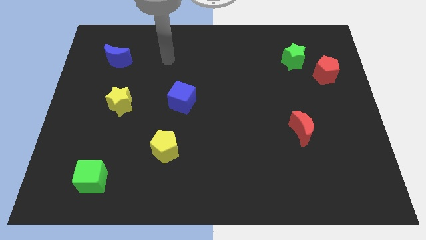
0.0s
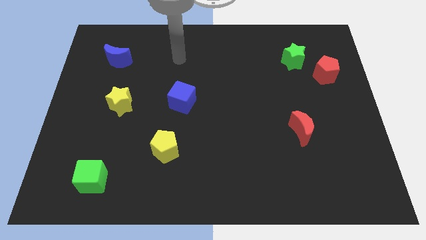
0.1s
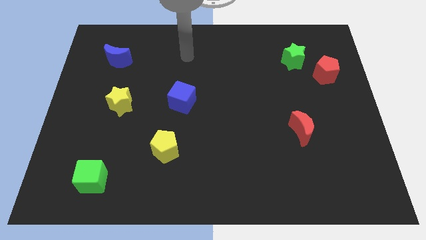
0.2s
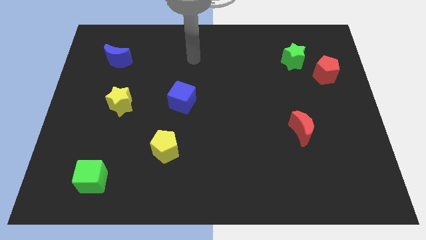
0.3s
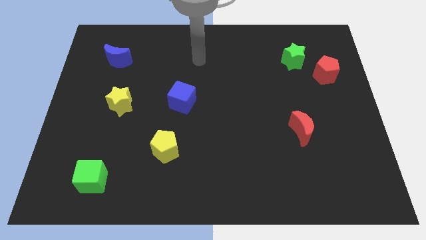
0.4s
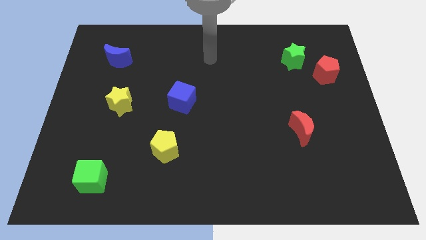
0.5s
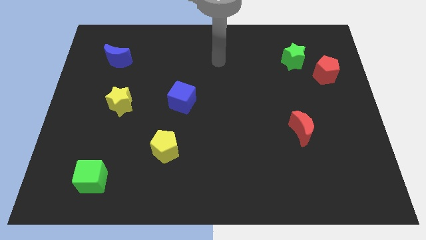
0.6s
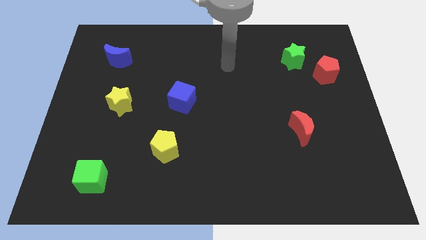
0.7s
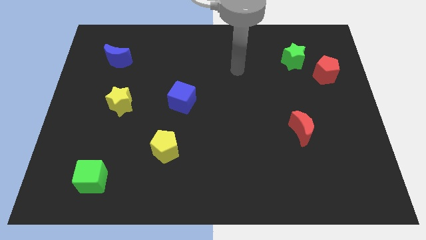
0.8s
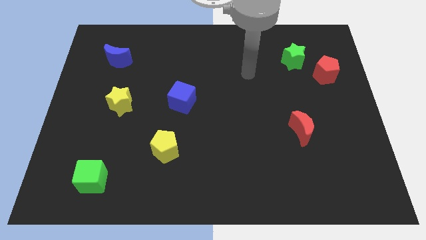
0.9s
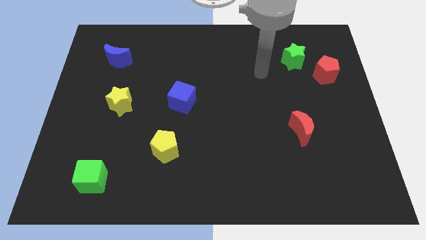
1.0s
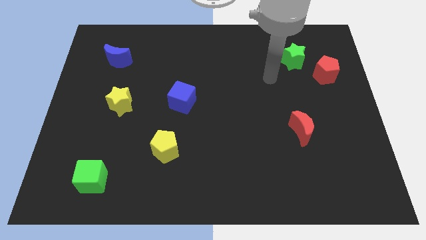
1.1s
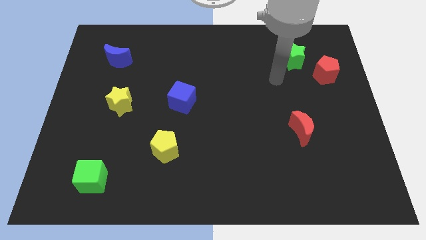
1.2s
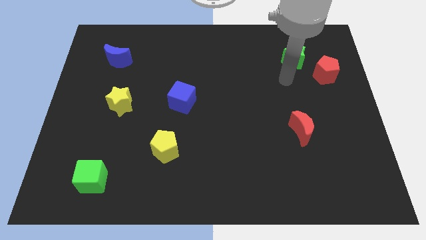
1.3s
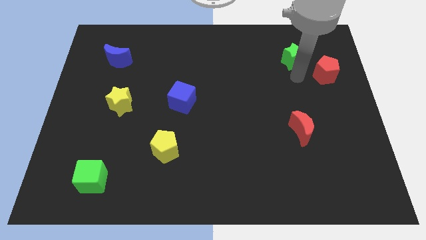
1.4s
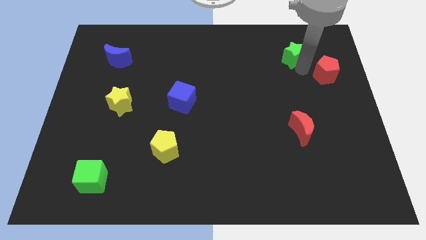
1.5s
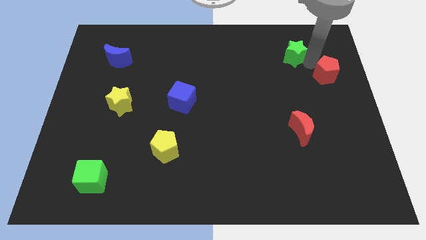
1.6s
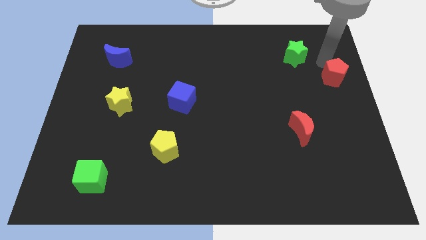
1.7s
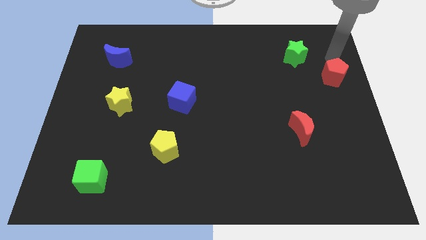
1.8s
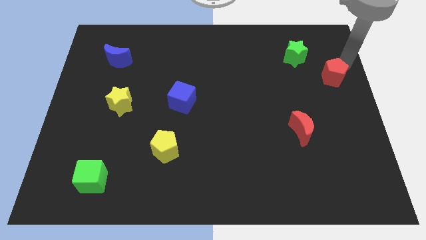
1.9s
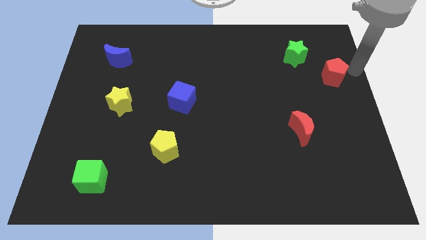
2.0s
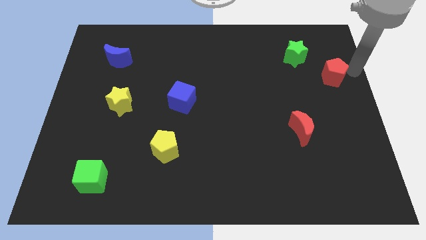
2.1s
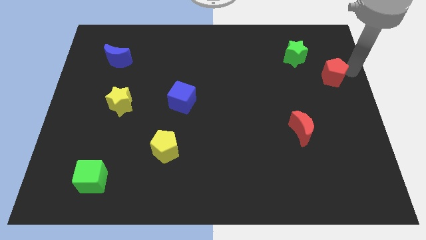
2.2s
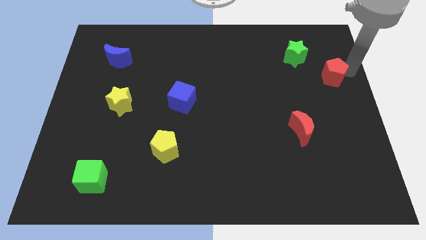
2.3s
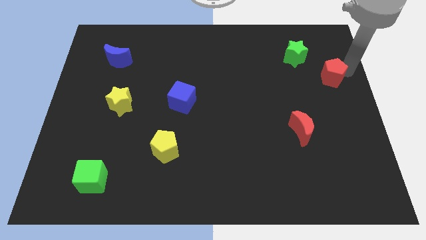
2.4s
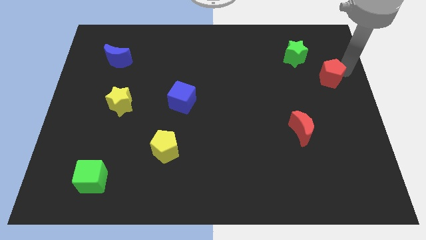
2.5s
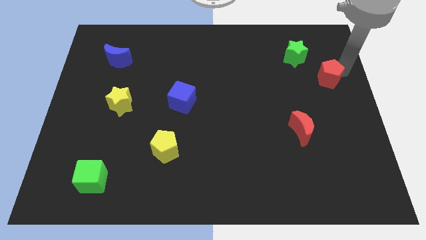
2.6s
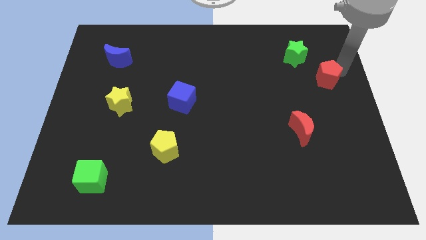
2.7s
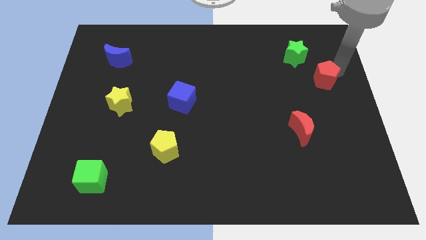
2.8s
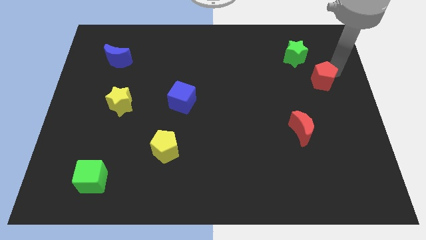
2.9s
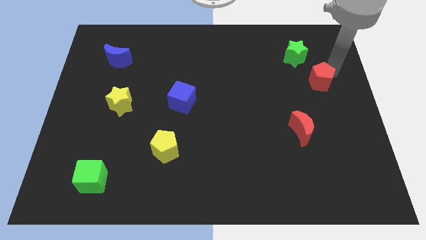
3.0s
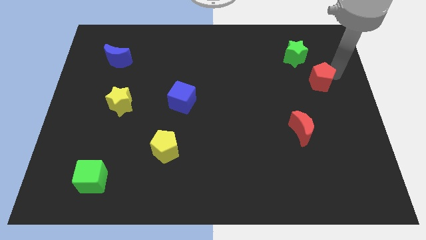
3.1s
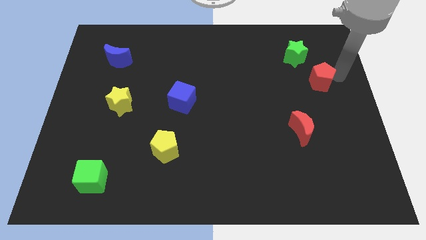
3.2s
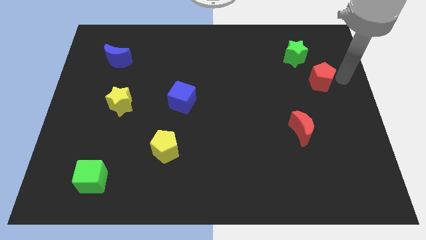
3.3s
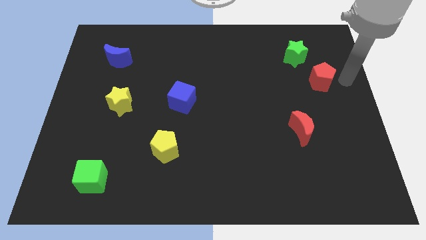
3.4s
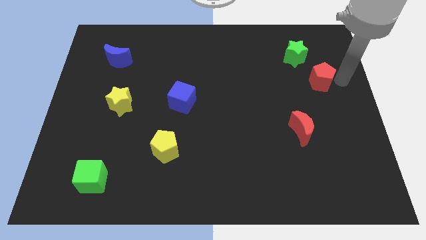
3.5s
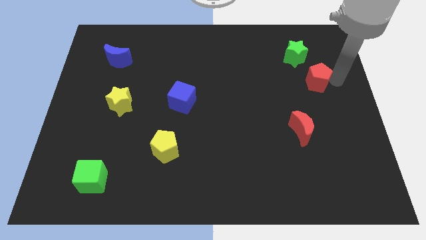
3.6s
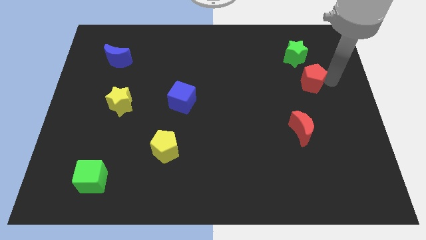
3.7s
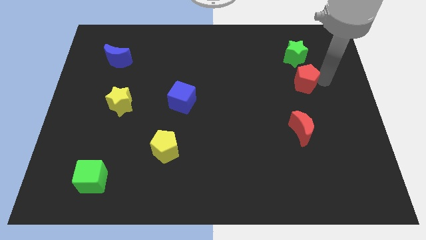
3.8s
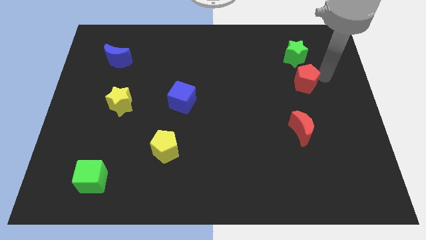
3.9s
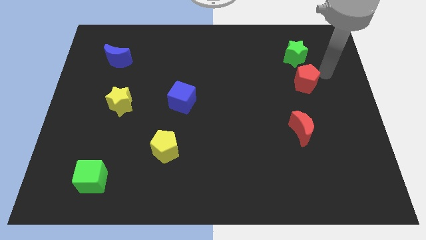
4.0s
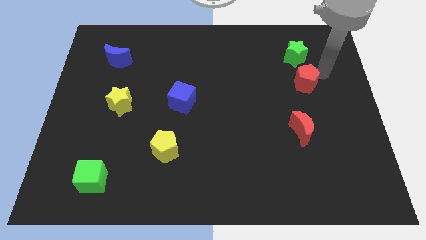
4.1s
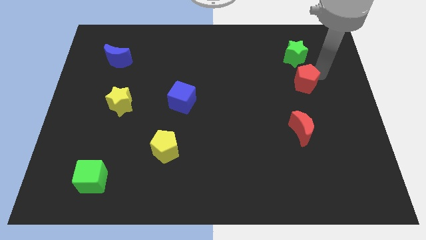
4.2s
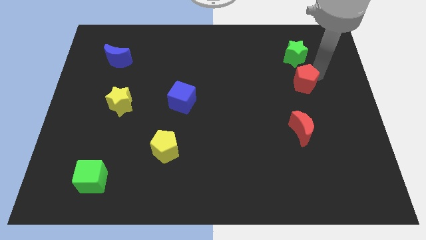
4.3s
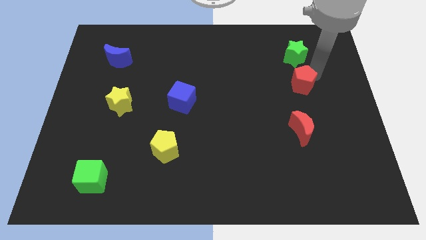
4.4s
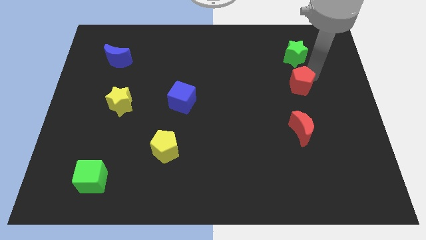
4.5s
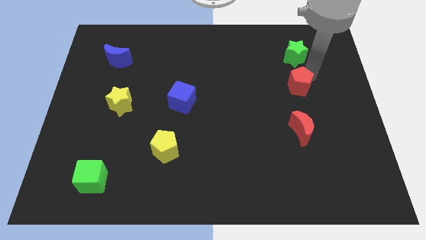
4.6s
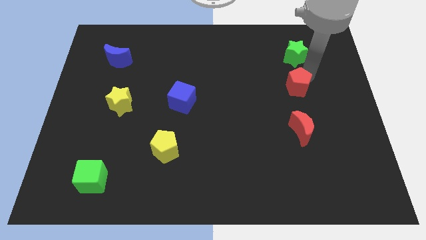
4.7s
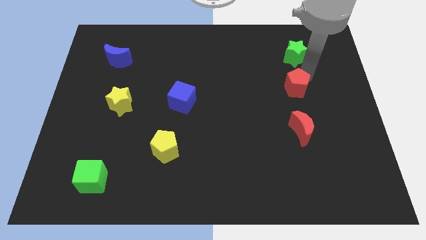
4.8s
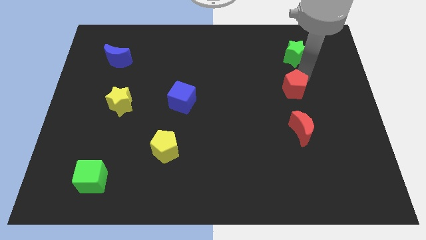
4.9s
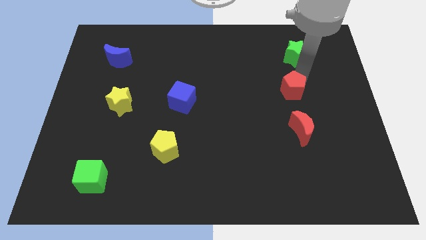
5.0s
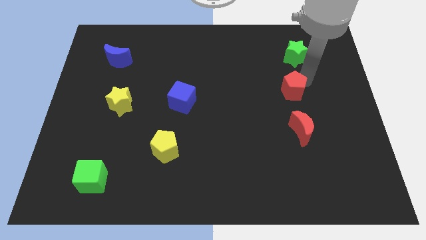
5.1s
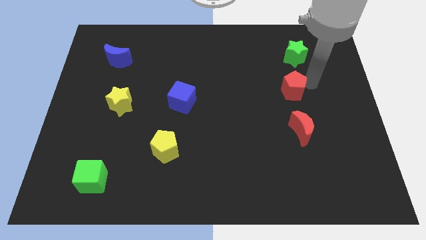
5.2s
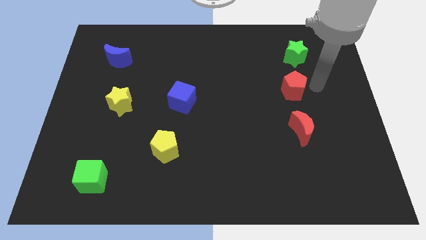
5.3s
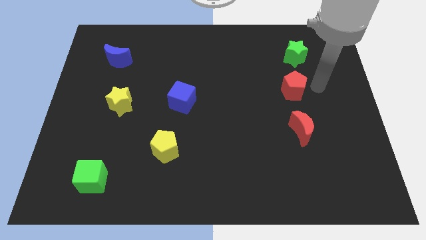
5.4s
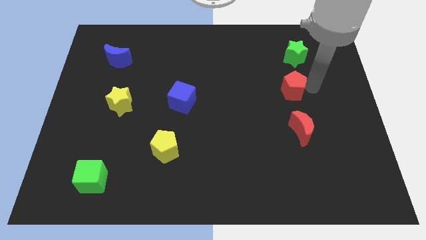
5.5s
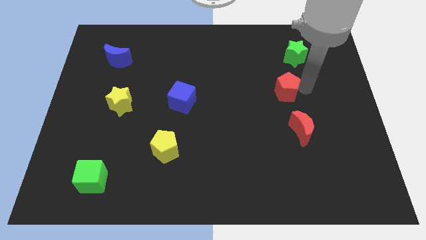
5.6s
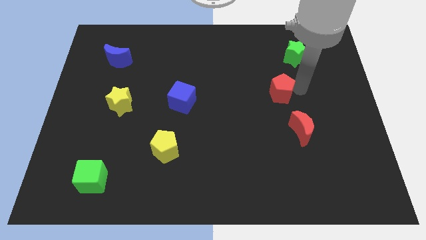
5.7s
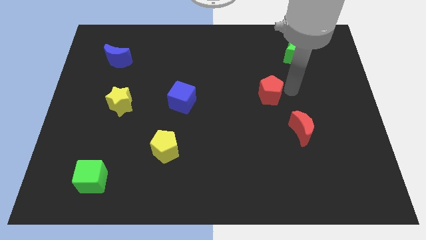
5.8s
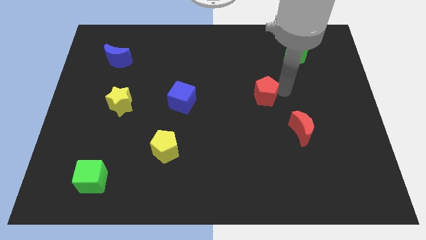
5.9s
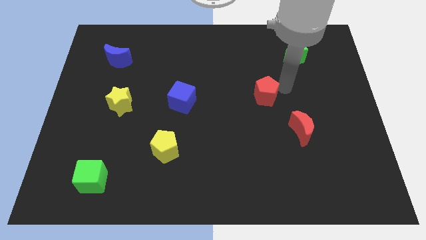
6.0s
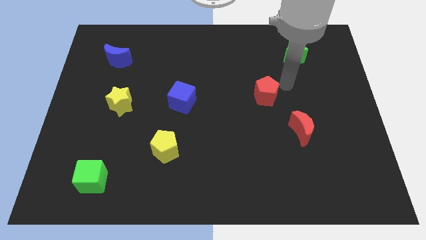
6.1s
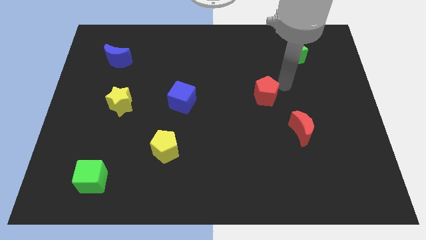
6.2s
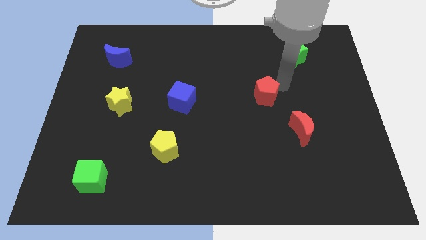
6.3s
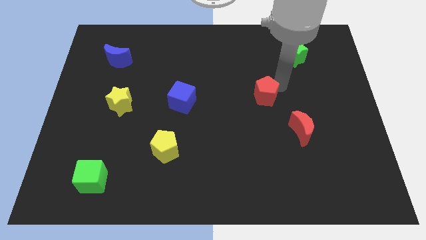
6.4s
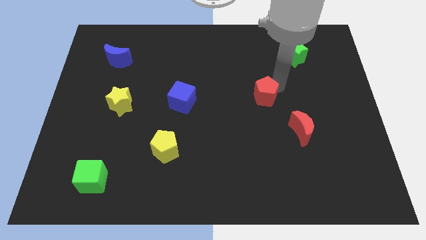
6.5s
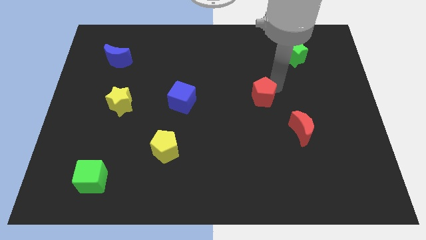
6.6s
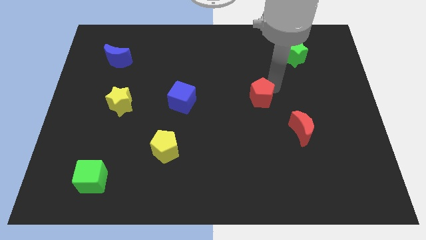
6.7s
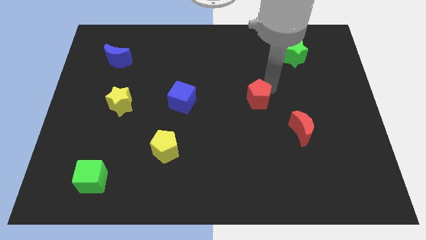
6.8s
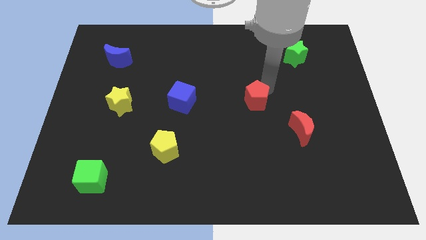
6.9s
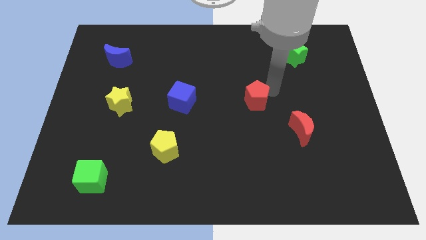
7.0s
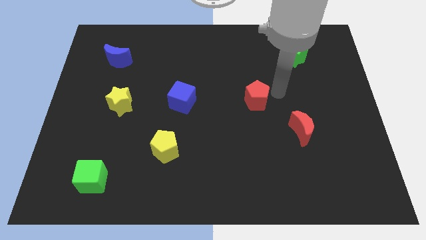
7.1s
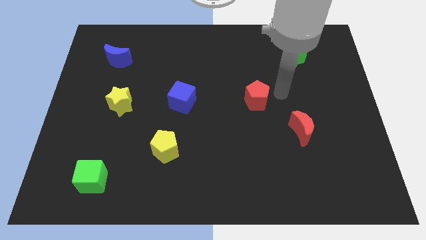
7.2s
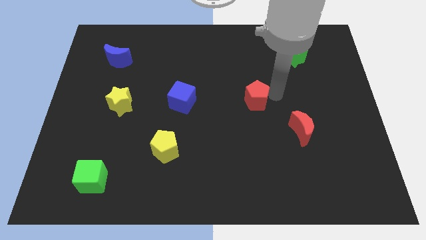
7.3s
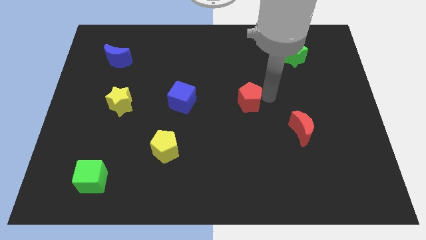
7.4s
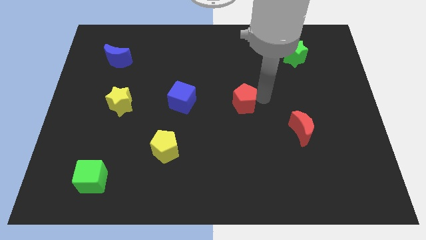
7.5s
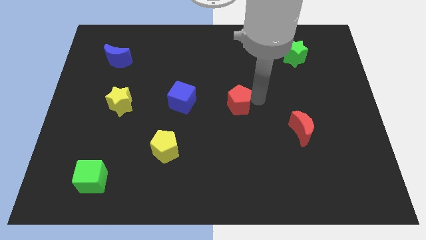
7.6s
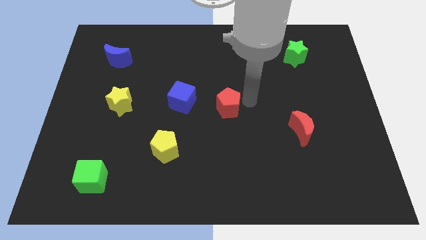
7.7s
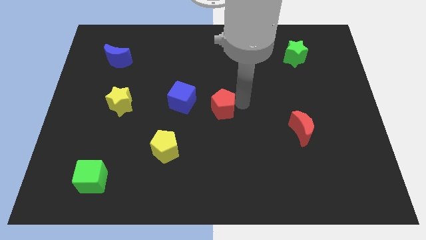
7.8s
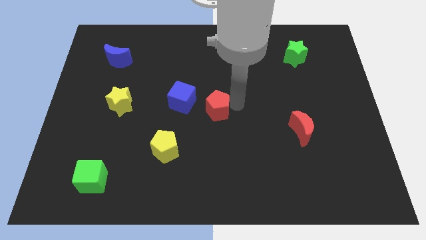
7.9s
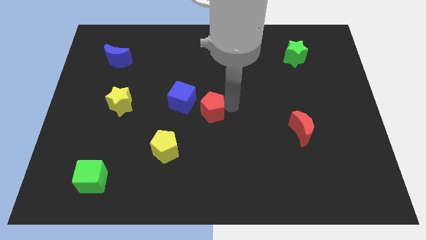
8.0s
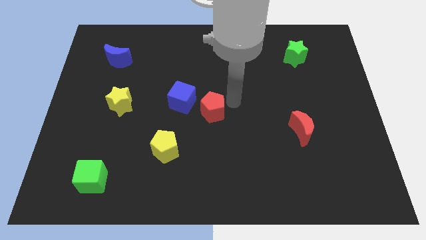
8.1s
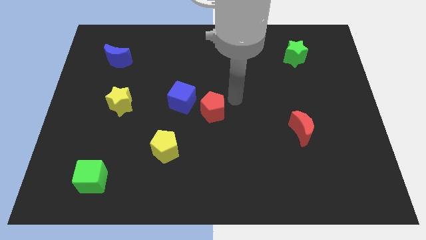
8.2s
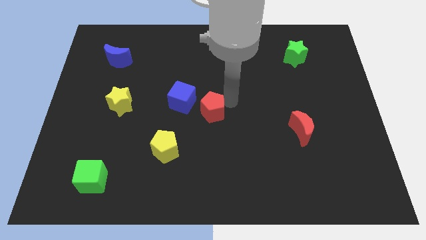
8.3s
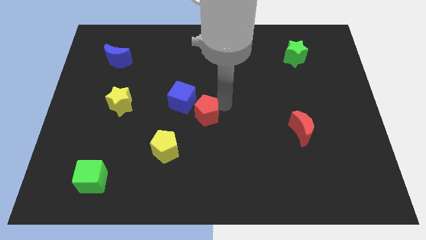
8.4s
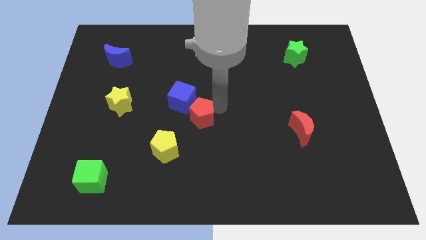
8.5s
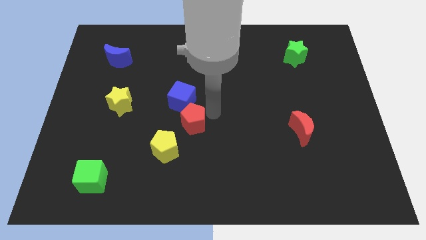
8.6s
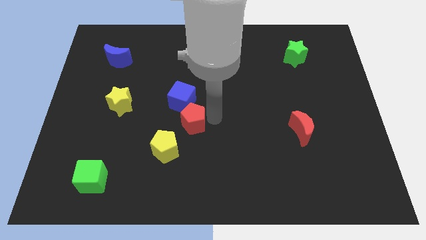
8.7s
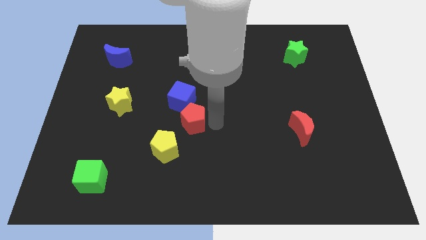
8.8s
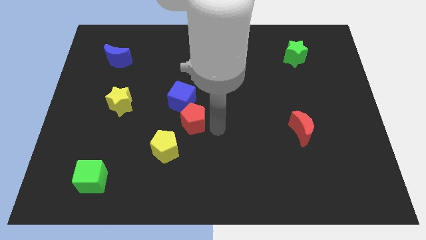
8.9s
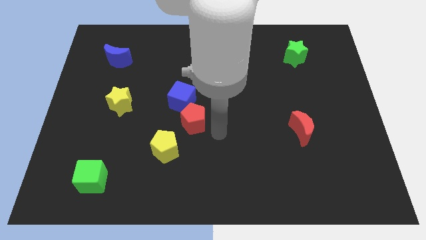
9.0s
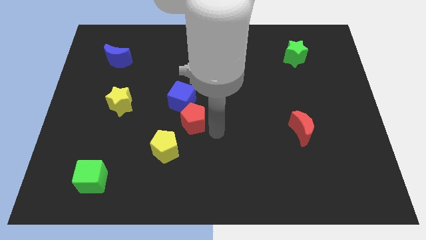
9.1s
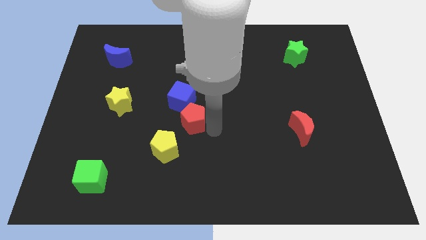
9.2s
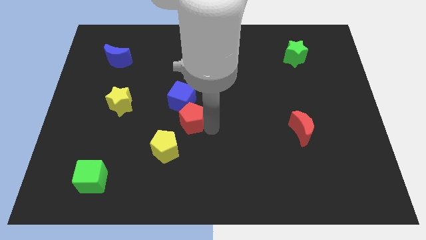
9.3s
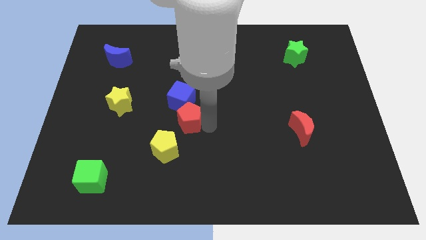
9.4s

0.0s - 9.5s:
slide the red pentagon above the yellow pentagon
